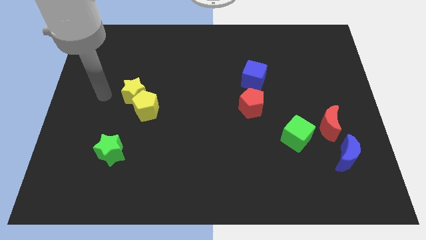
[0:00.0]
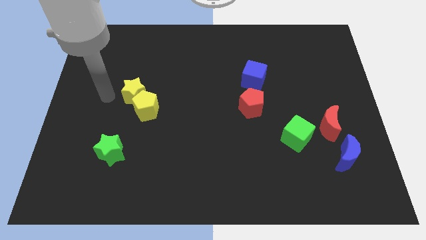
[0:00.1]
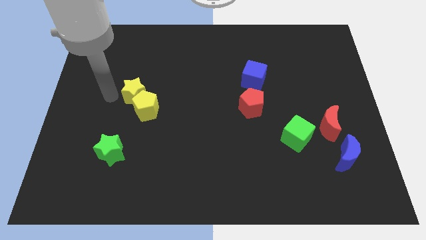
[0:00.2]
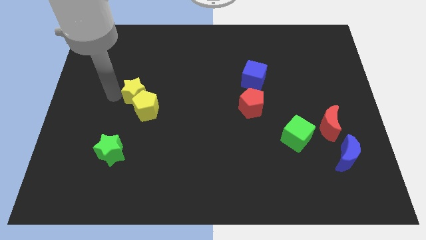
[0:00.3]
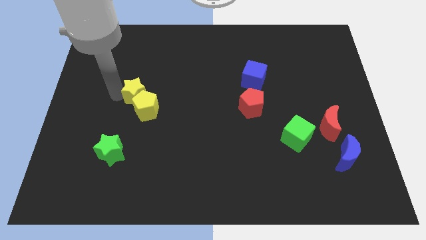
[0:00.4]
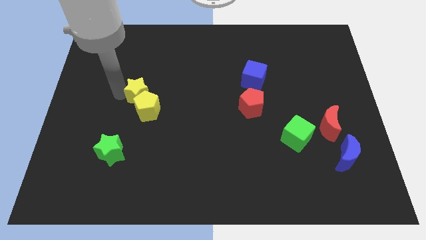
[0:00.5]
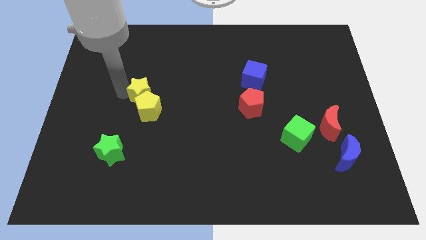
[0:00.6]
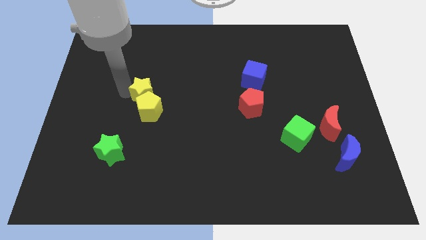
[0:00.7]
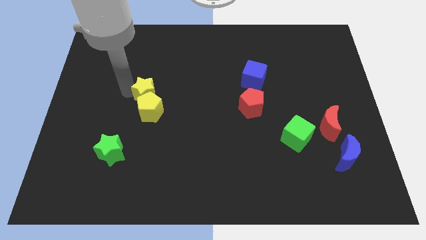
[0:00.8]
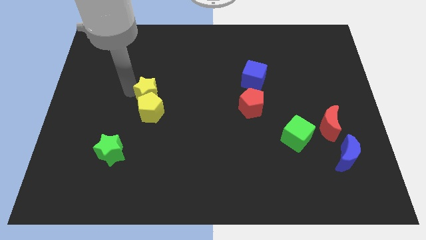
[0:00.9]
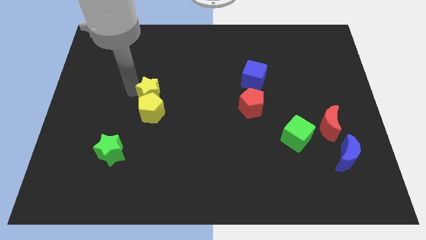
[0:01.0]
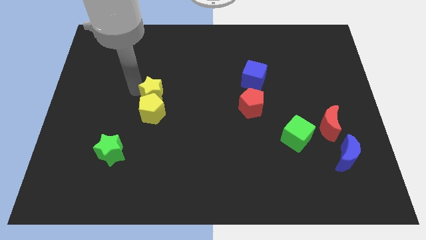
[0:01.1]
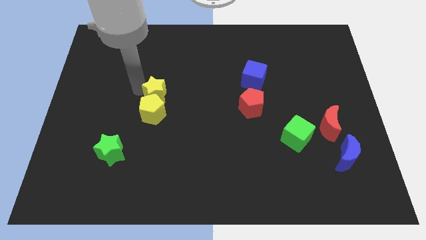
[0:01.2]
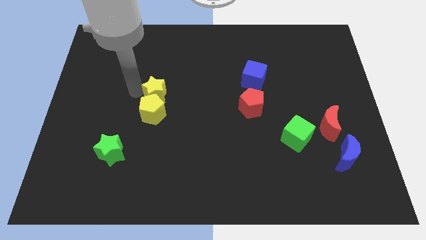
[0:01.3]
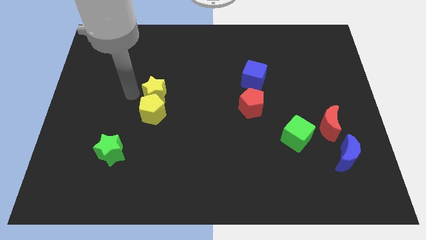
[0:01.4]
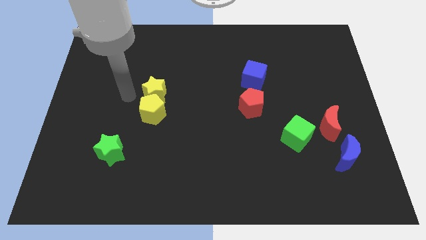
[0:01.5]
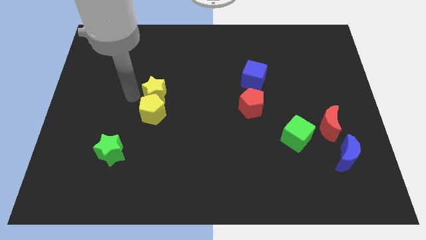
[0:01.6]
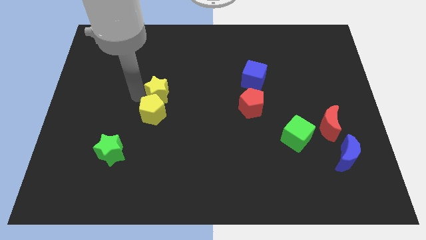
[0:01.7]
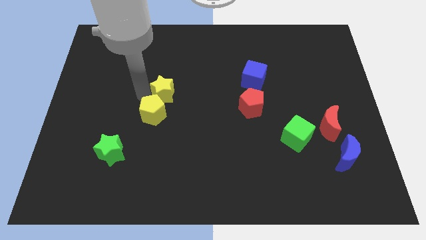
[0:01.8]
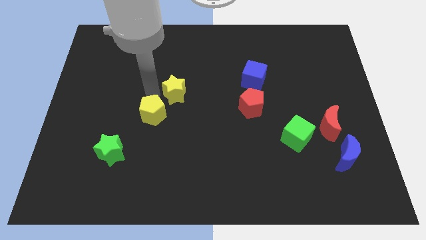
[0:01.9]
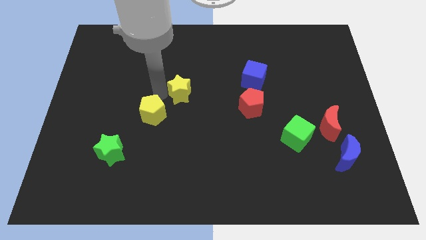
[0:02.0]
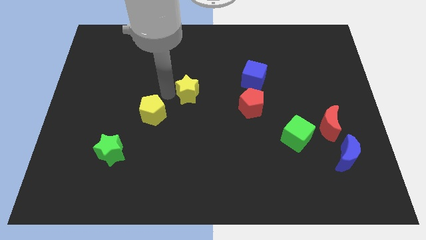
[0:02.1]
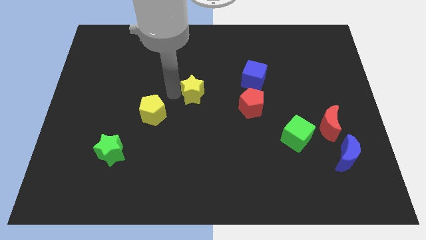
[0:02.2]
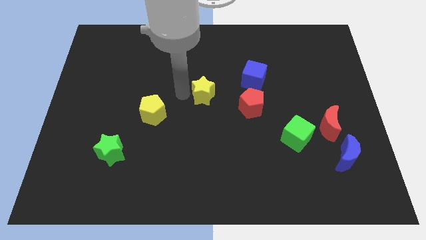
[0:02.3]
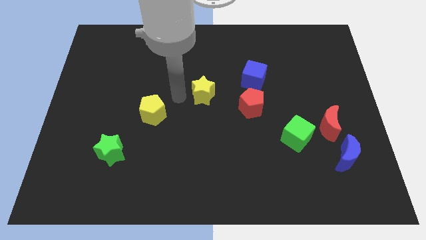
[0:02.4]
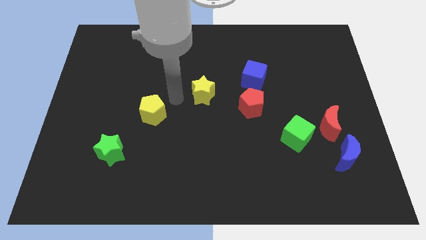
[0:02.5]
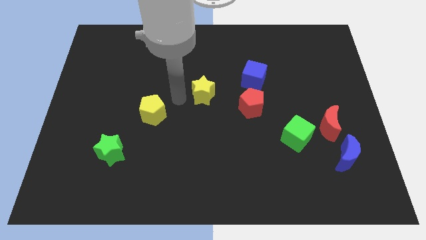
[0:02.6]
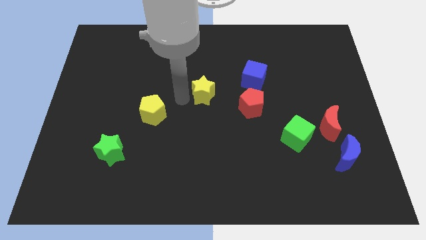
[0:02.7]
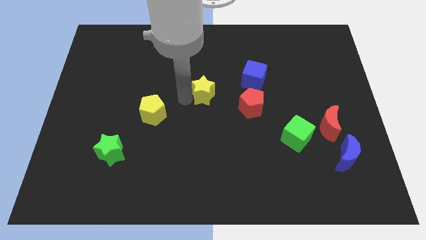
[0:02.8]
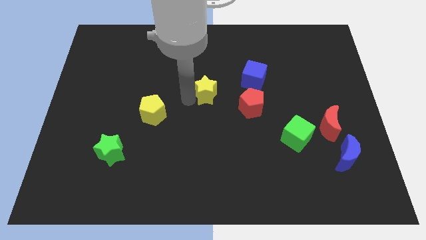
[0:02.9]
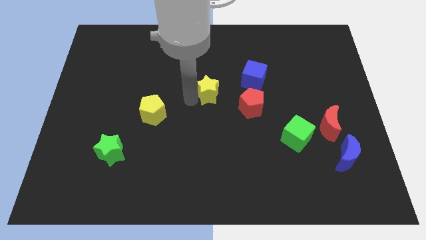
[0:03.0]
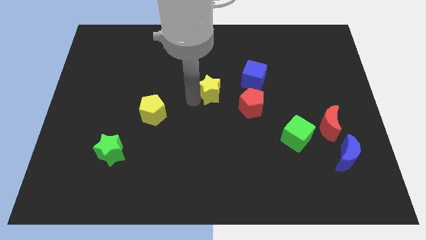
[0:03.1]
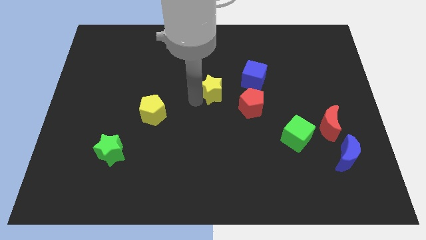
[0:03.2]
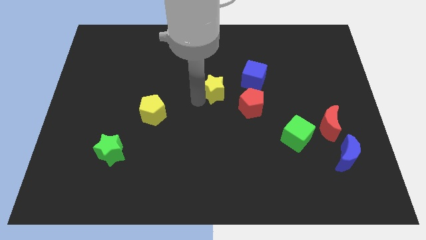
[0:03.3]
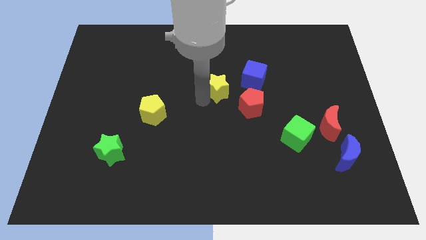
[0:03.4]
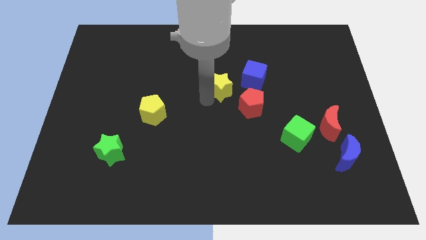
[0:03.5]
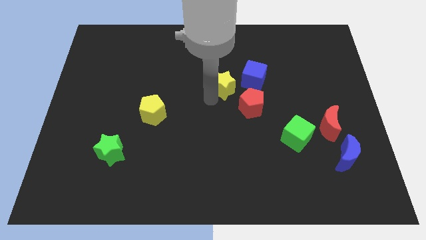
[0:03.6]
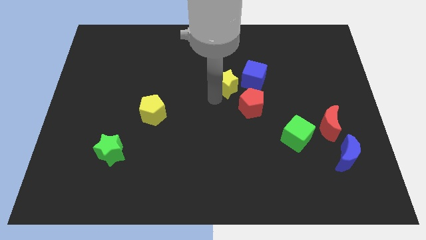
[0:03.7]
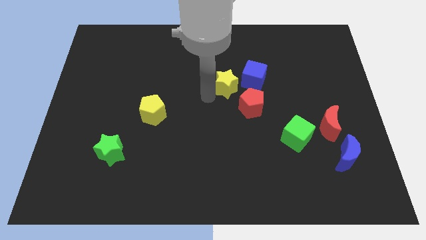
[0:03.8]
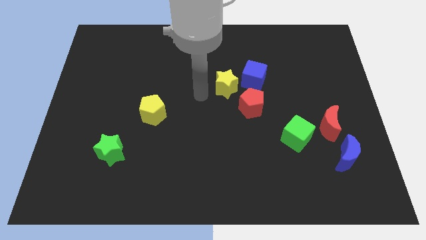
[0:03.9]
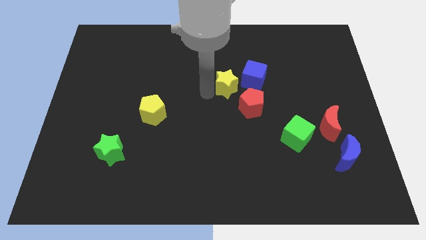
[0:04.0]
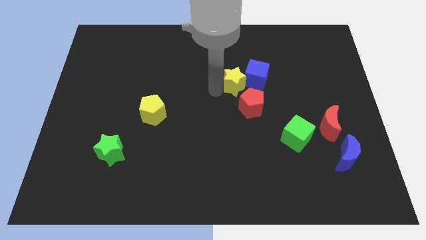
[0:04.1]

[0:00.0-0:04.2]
slide the yellow star to the blue cube

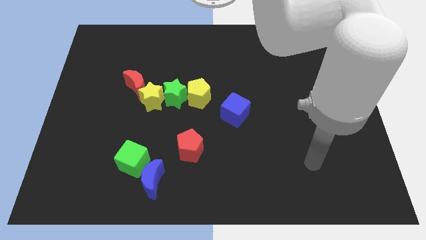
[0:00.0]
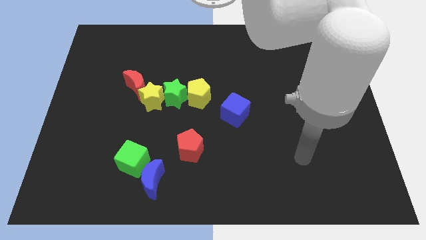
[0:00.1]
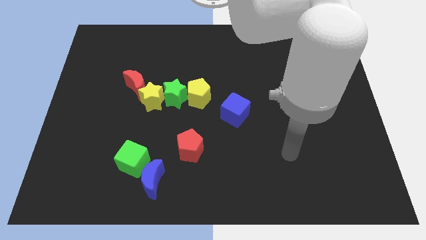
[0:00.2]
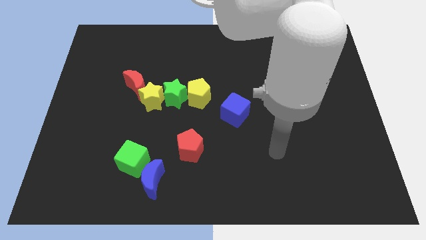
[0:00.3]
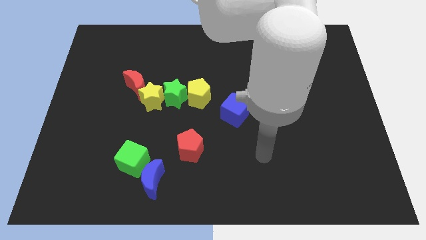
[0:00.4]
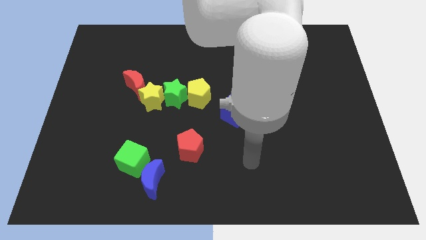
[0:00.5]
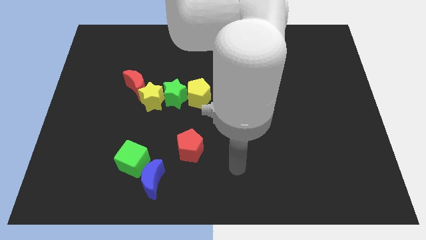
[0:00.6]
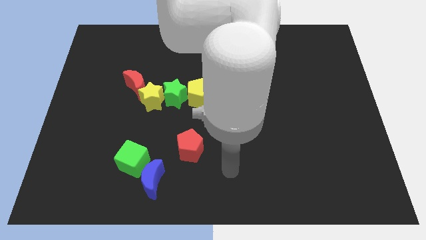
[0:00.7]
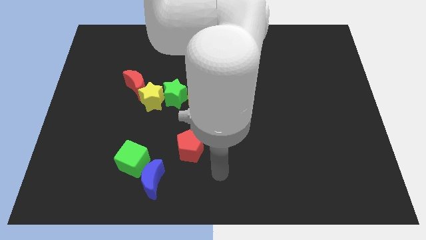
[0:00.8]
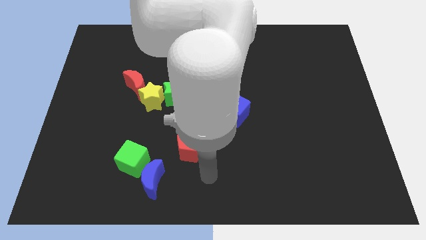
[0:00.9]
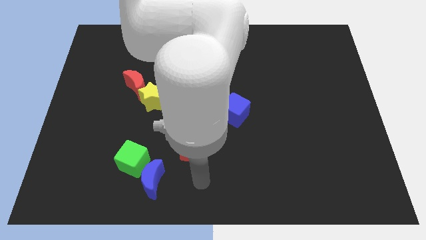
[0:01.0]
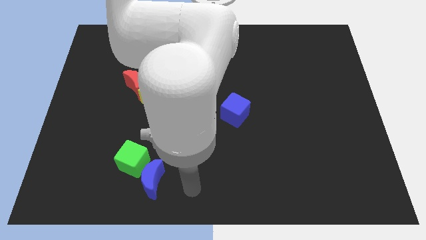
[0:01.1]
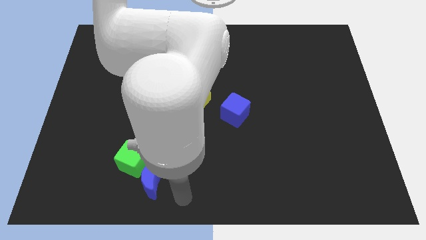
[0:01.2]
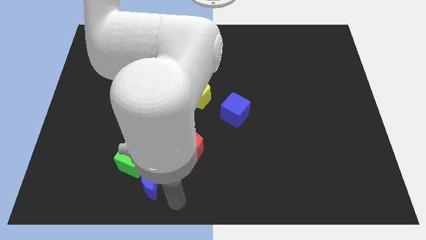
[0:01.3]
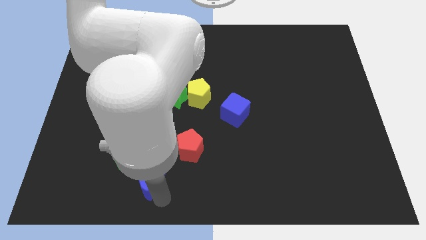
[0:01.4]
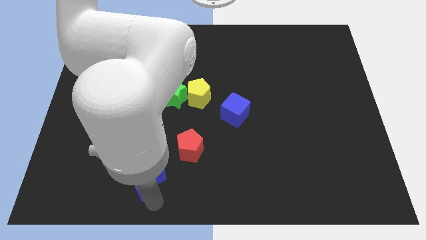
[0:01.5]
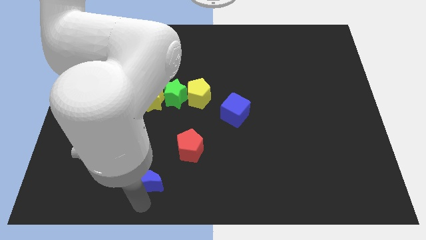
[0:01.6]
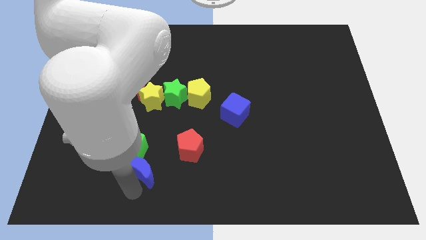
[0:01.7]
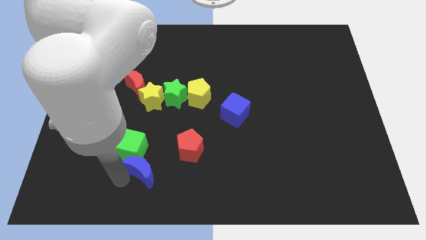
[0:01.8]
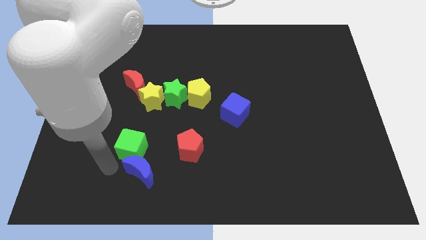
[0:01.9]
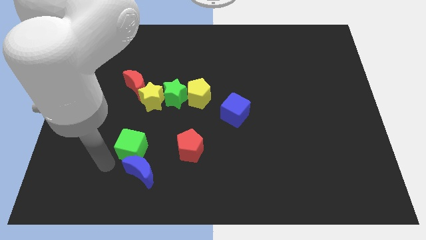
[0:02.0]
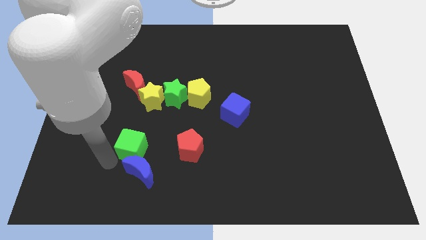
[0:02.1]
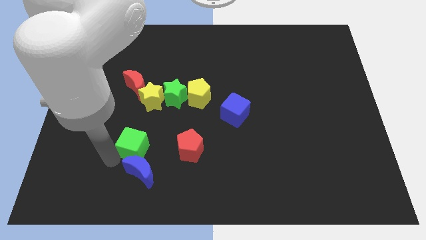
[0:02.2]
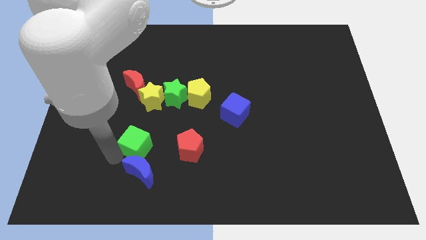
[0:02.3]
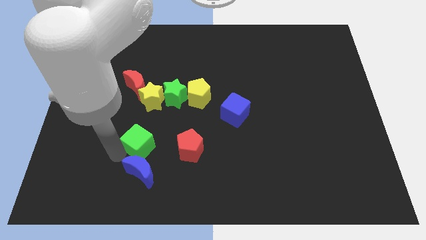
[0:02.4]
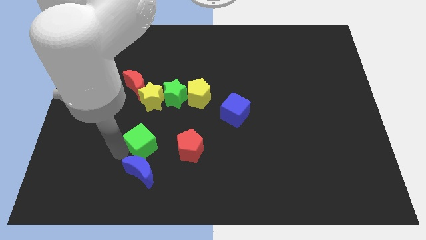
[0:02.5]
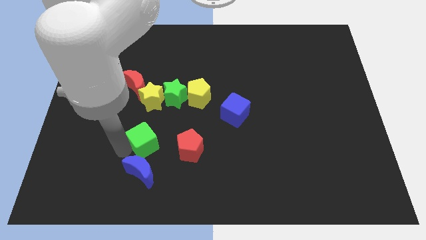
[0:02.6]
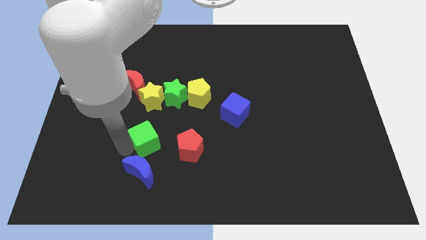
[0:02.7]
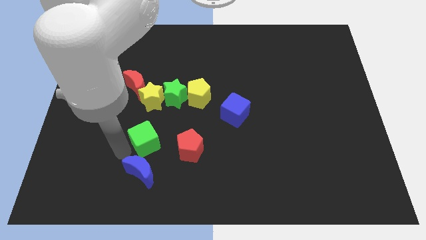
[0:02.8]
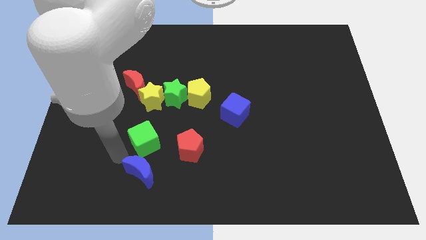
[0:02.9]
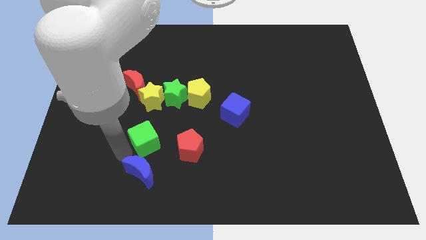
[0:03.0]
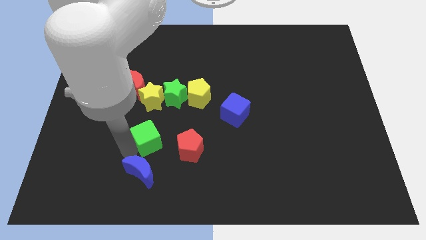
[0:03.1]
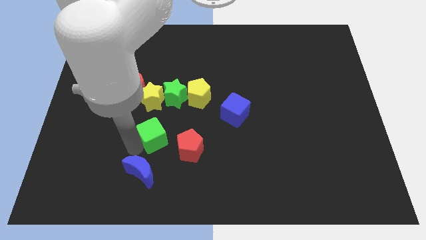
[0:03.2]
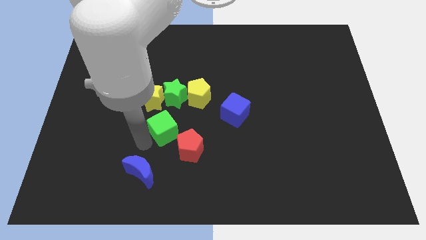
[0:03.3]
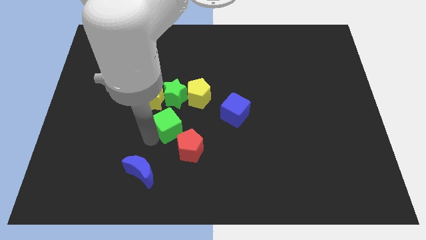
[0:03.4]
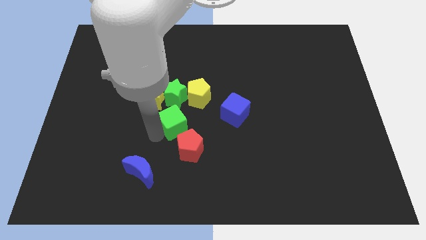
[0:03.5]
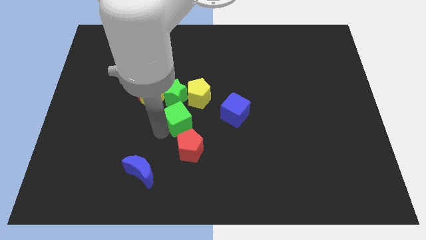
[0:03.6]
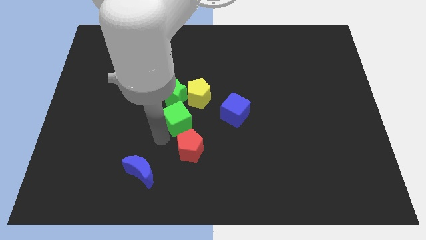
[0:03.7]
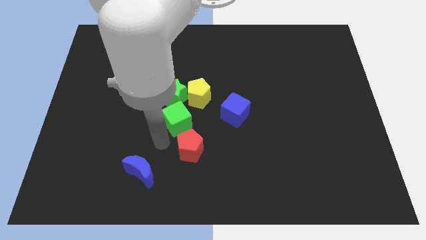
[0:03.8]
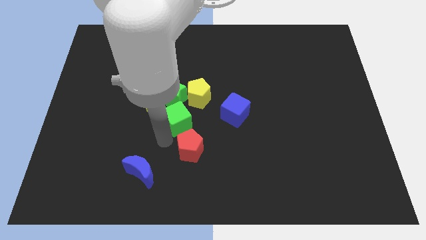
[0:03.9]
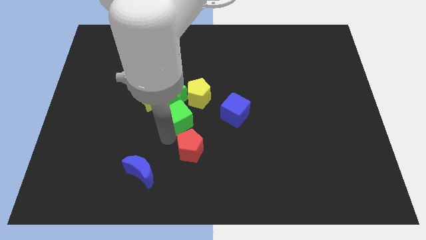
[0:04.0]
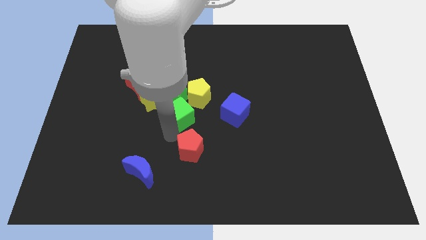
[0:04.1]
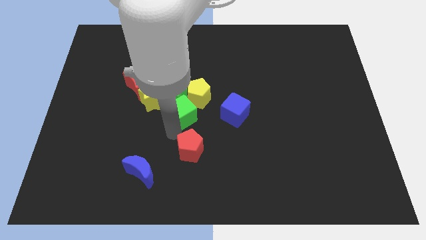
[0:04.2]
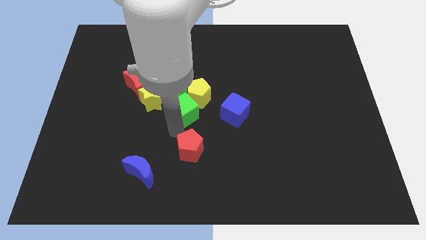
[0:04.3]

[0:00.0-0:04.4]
move the green cube close to the yellow pentagon
